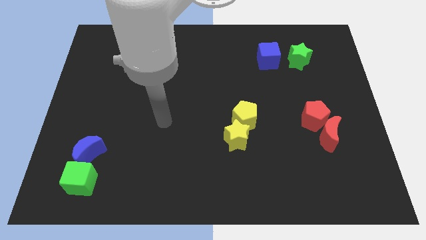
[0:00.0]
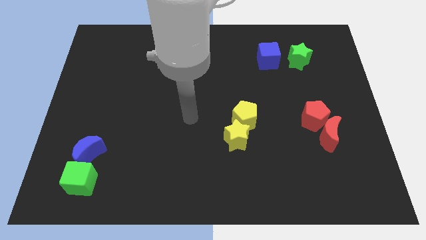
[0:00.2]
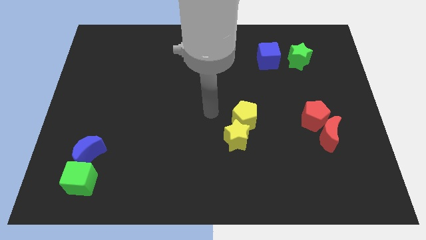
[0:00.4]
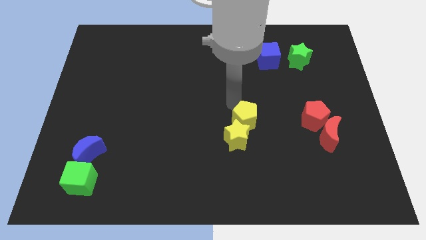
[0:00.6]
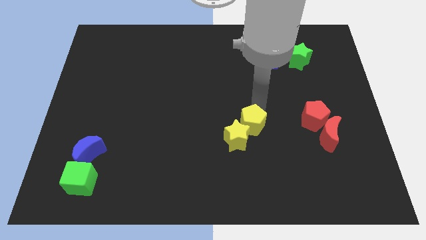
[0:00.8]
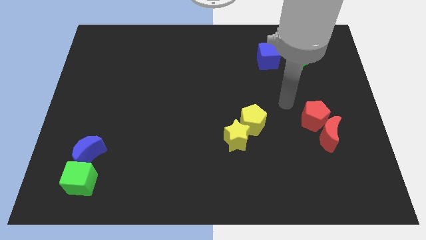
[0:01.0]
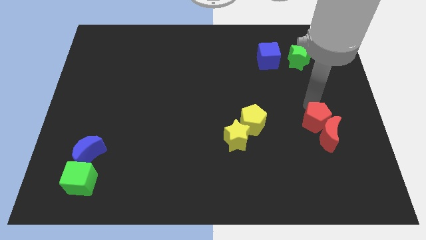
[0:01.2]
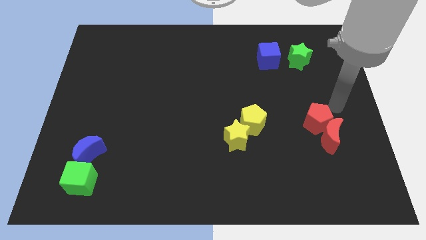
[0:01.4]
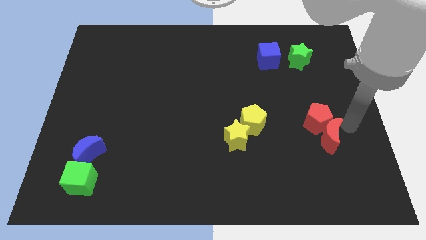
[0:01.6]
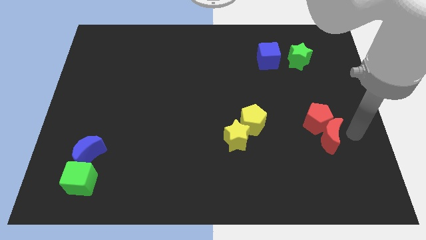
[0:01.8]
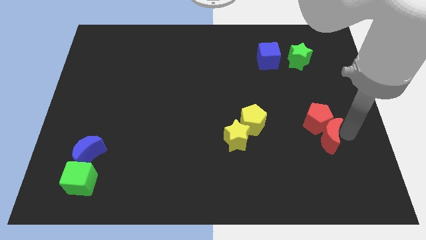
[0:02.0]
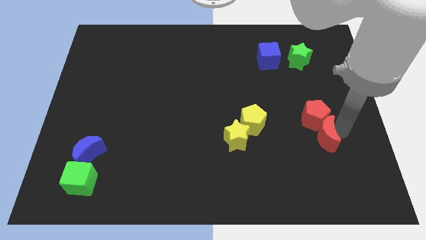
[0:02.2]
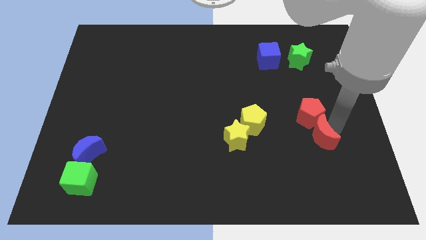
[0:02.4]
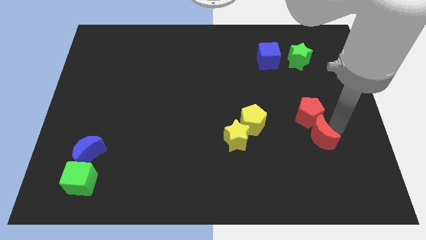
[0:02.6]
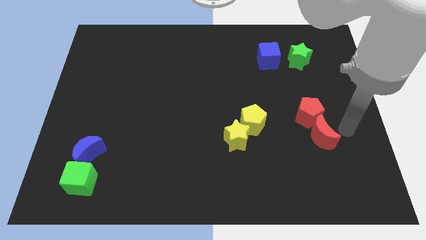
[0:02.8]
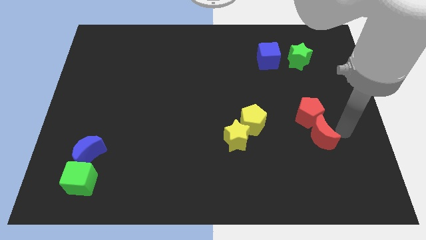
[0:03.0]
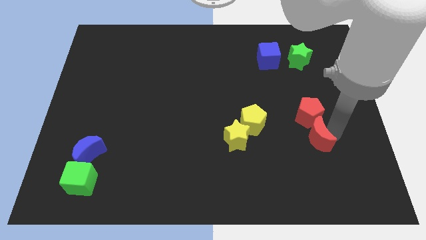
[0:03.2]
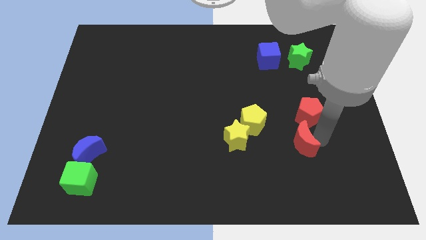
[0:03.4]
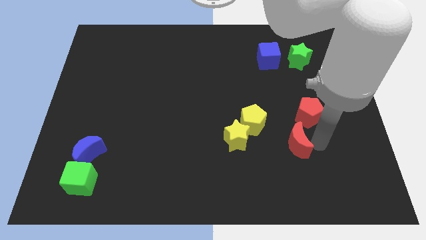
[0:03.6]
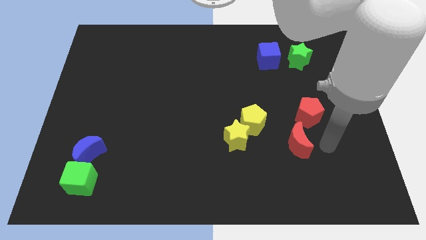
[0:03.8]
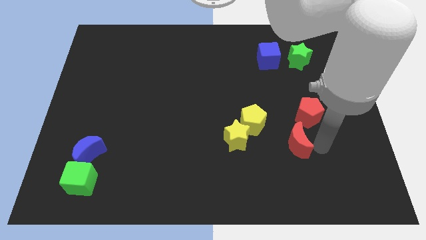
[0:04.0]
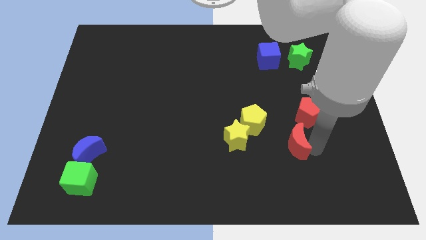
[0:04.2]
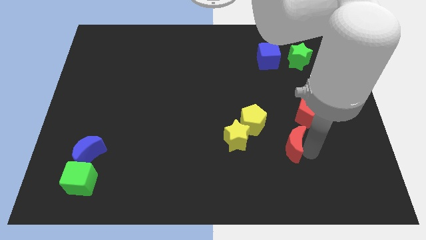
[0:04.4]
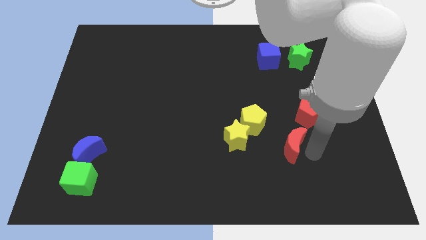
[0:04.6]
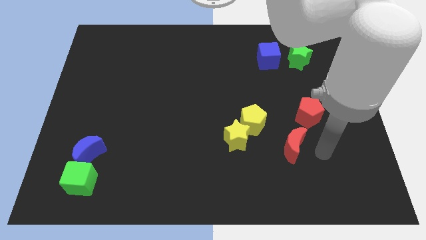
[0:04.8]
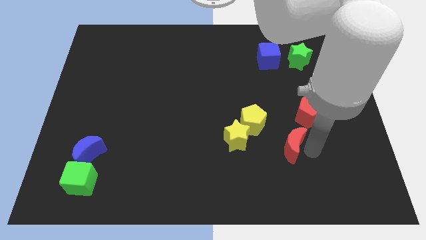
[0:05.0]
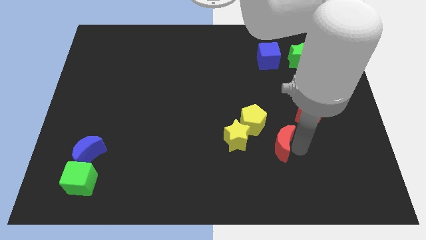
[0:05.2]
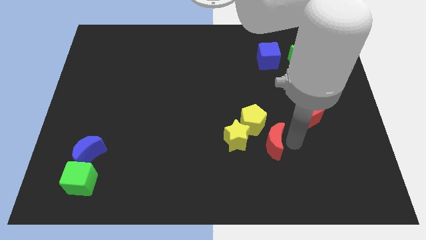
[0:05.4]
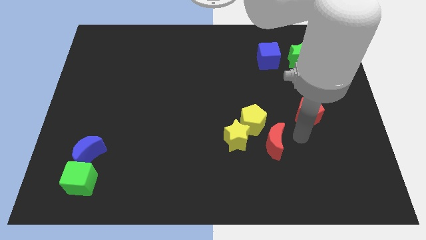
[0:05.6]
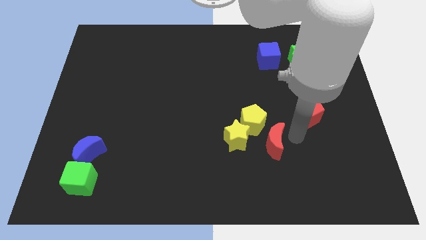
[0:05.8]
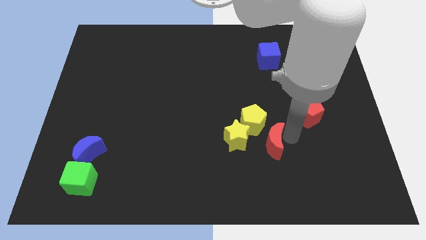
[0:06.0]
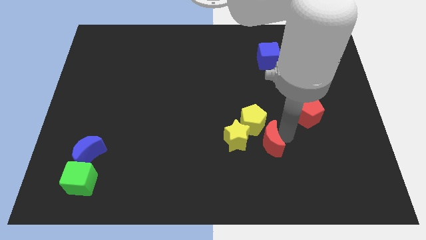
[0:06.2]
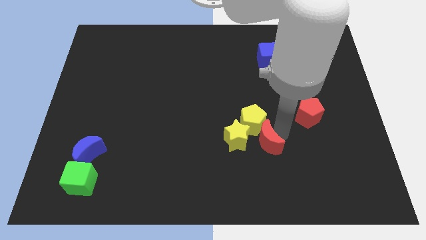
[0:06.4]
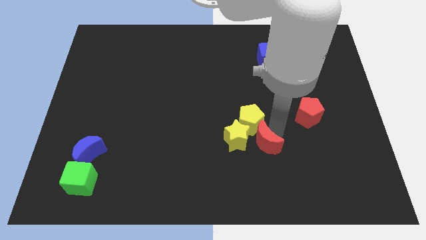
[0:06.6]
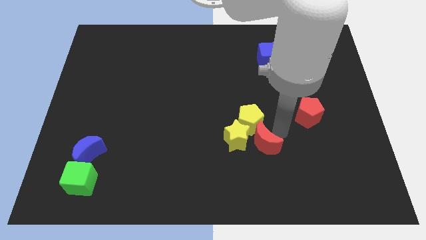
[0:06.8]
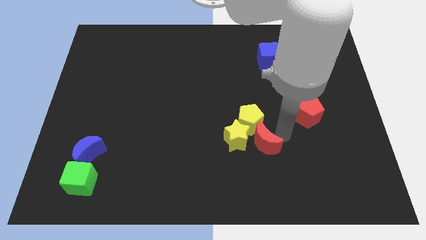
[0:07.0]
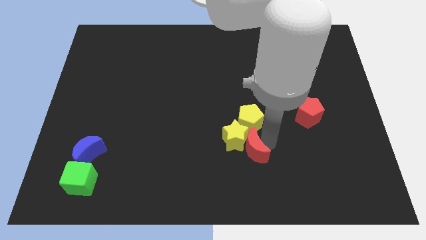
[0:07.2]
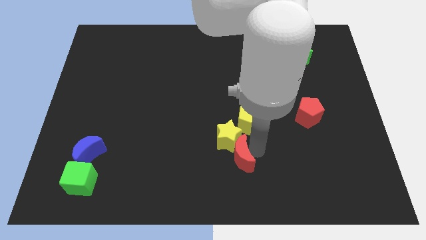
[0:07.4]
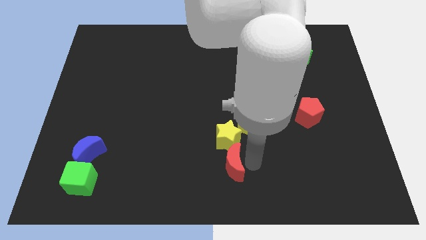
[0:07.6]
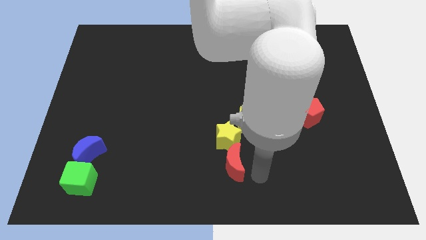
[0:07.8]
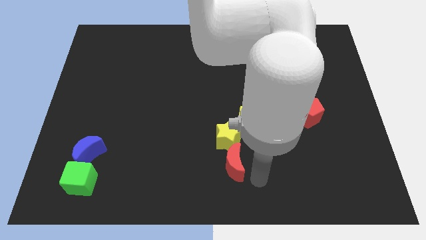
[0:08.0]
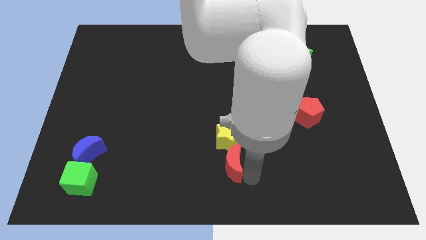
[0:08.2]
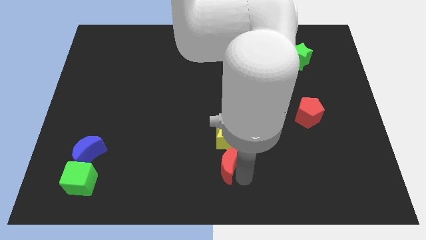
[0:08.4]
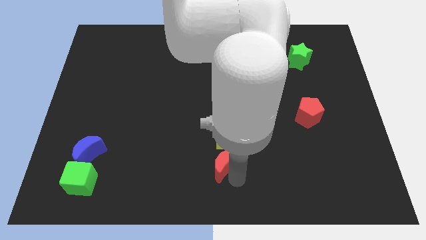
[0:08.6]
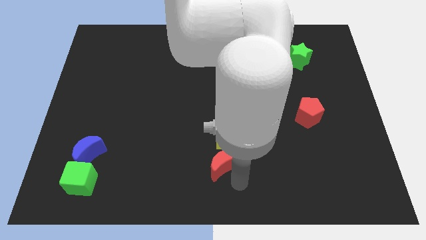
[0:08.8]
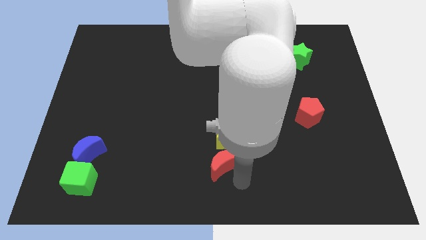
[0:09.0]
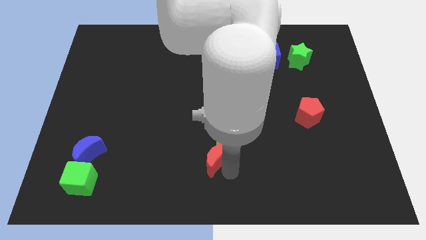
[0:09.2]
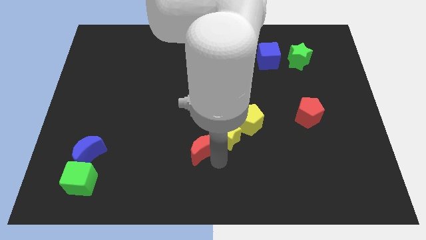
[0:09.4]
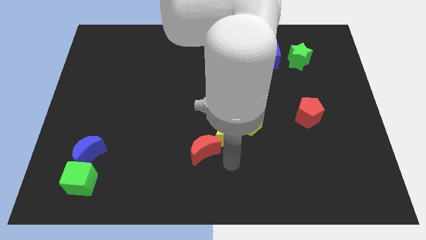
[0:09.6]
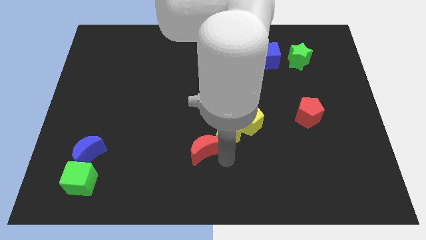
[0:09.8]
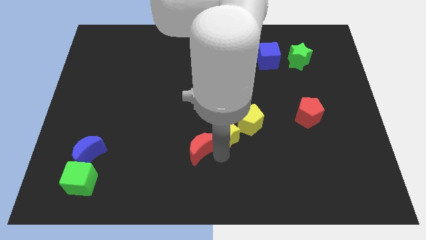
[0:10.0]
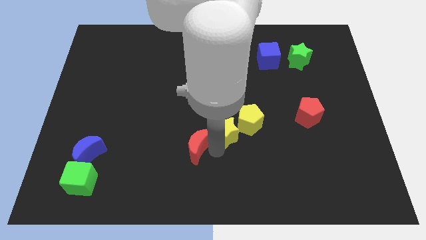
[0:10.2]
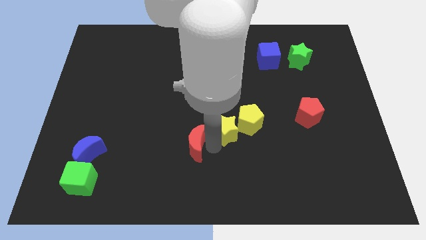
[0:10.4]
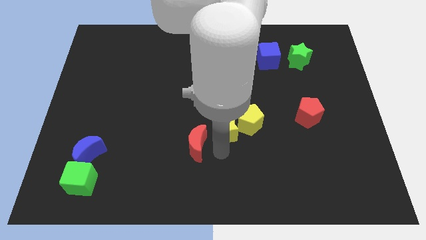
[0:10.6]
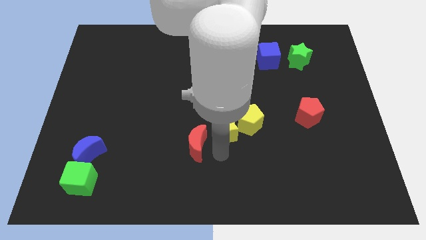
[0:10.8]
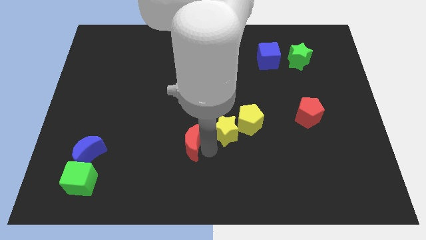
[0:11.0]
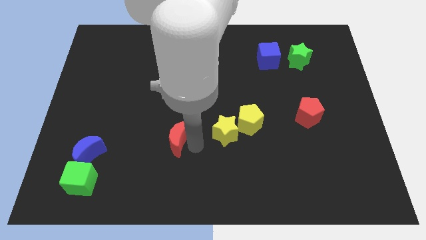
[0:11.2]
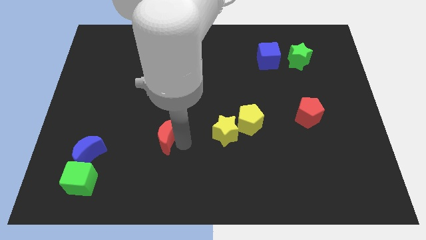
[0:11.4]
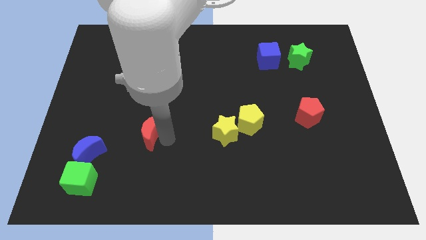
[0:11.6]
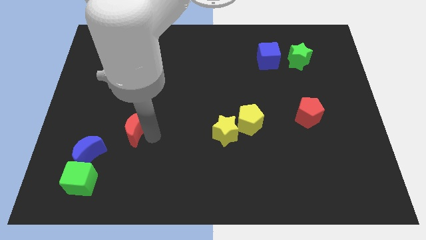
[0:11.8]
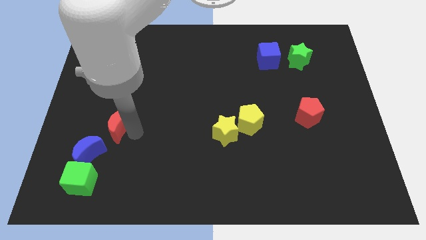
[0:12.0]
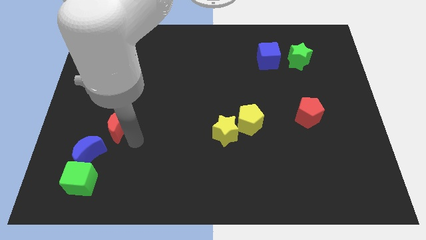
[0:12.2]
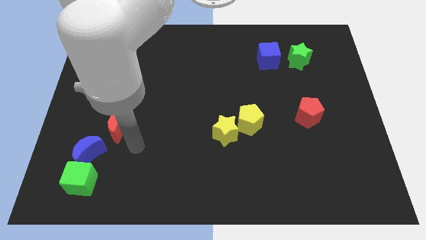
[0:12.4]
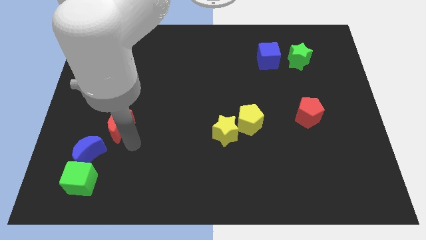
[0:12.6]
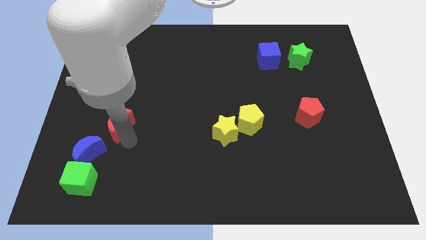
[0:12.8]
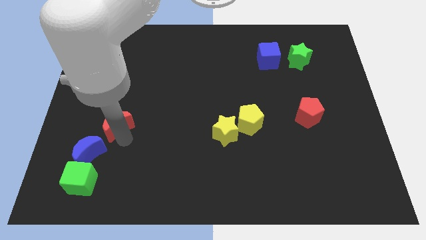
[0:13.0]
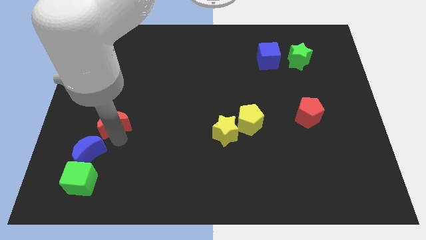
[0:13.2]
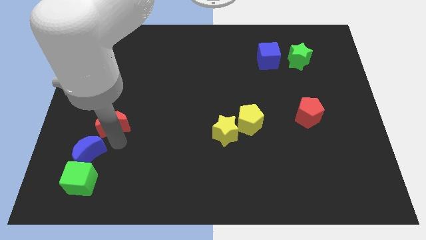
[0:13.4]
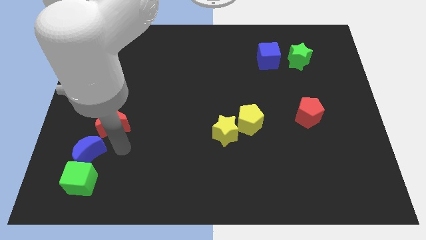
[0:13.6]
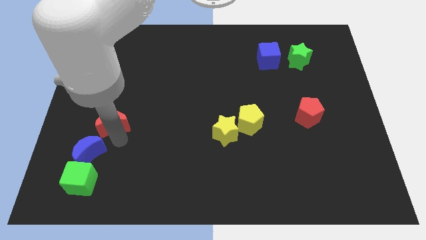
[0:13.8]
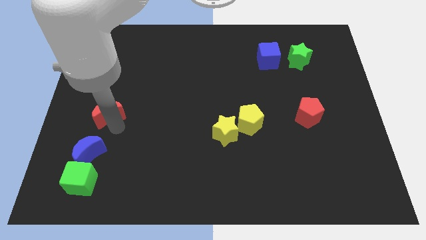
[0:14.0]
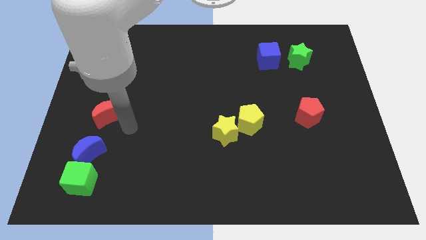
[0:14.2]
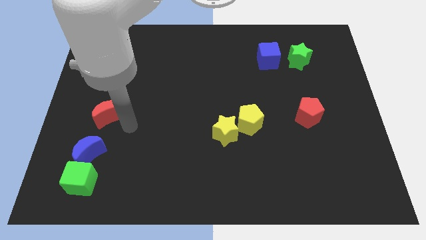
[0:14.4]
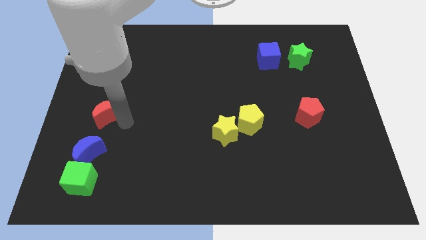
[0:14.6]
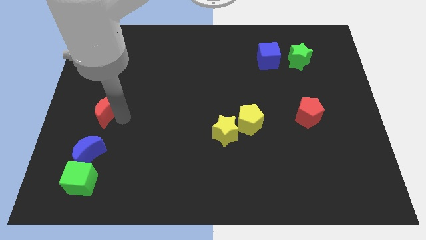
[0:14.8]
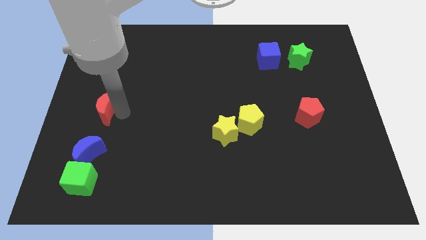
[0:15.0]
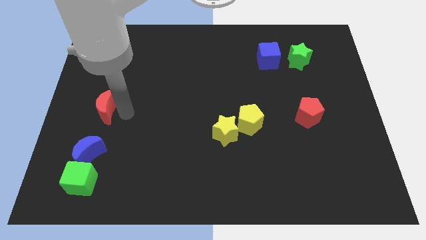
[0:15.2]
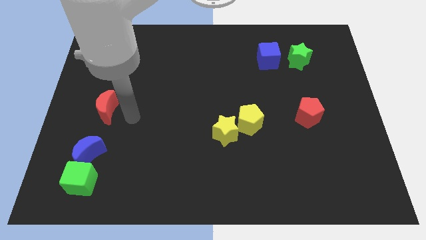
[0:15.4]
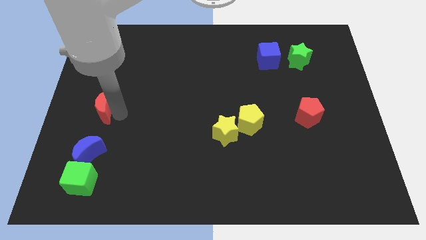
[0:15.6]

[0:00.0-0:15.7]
move the red moon to the left side
